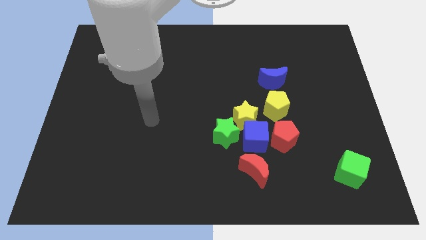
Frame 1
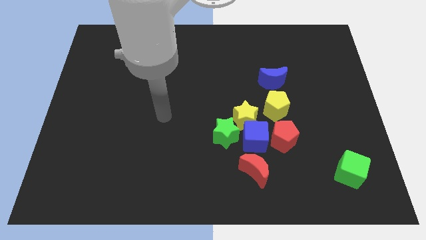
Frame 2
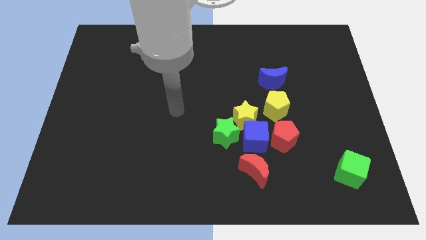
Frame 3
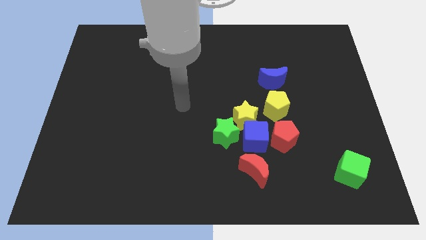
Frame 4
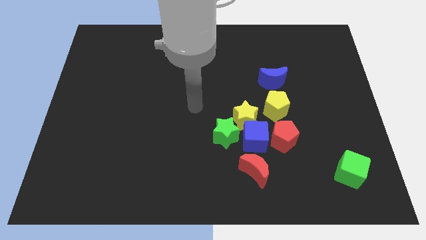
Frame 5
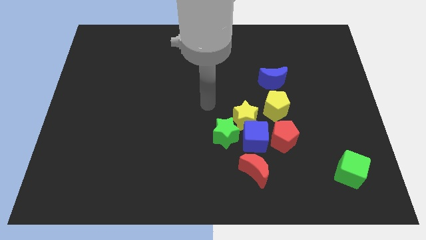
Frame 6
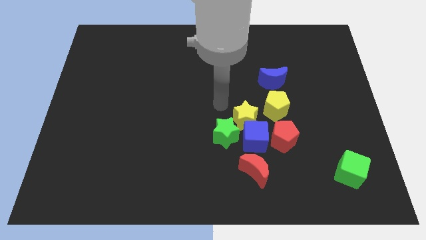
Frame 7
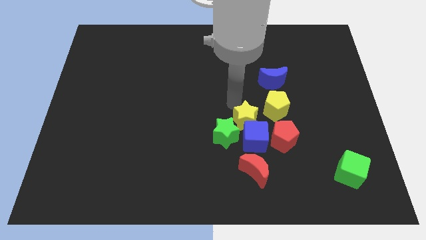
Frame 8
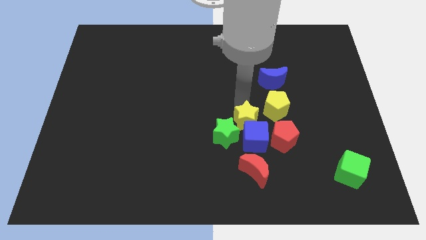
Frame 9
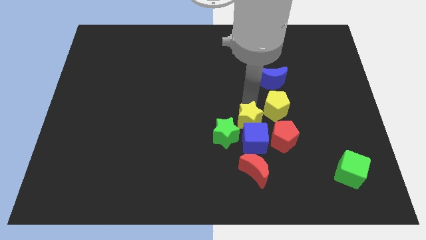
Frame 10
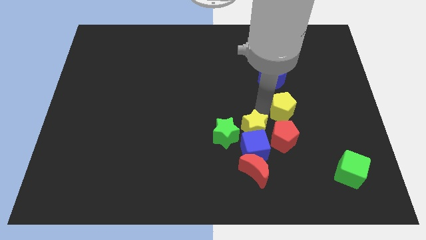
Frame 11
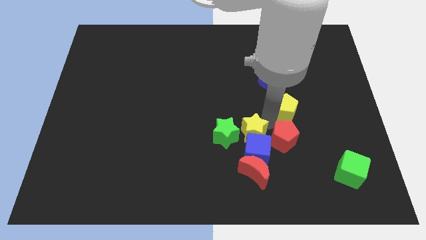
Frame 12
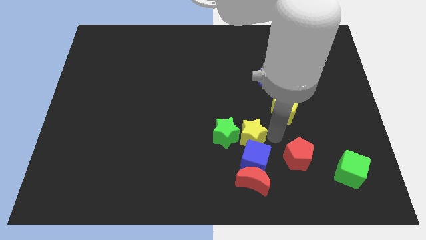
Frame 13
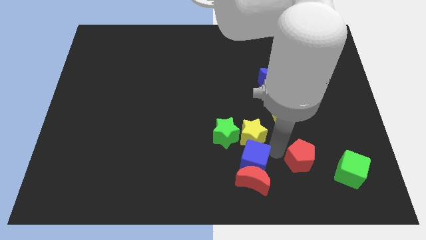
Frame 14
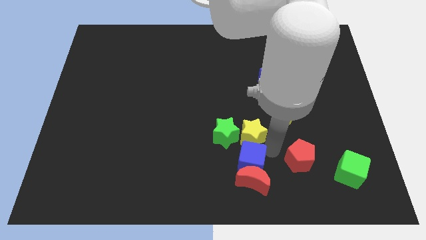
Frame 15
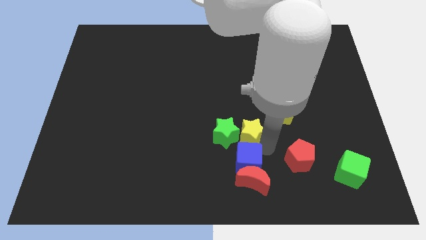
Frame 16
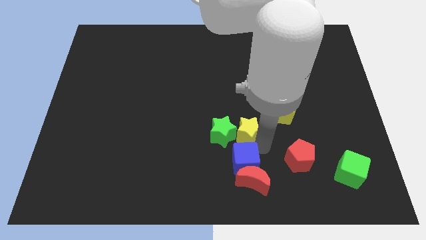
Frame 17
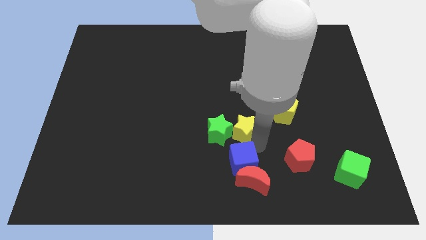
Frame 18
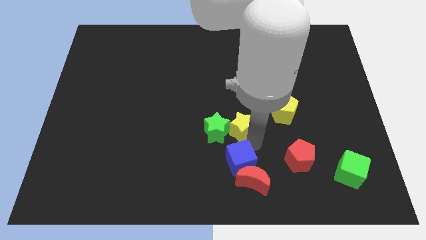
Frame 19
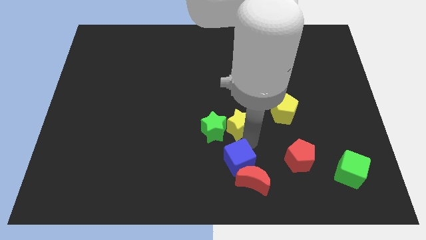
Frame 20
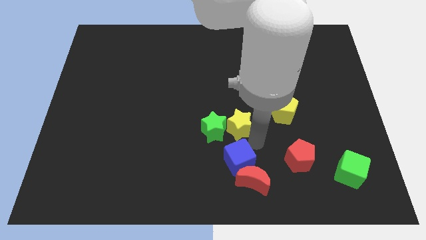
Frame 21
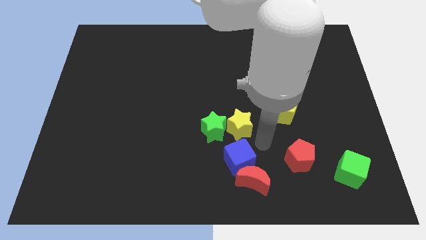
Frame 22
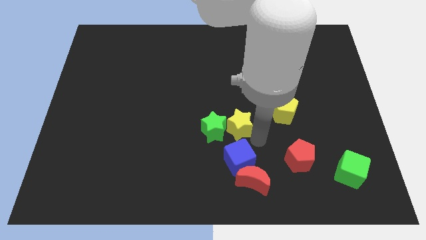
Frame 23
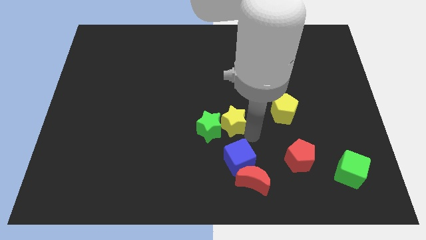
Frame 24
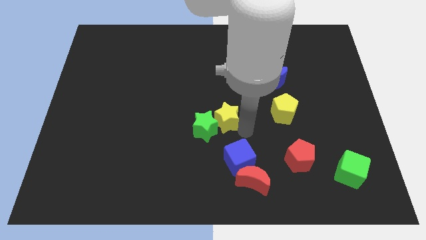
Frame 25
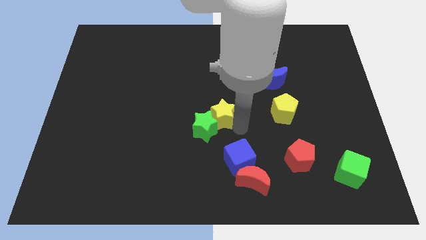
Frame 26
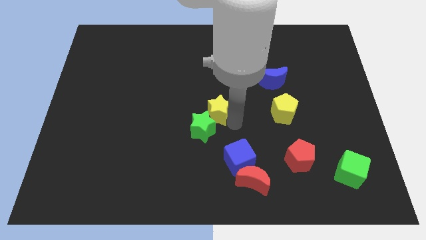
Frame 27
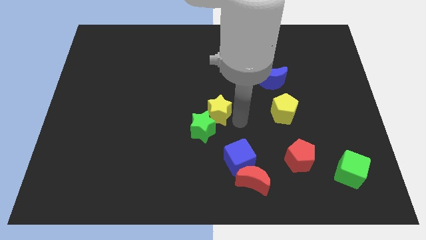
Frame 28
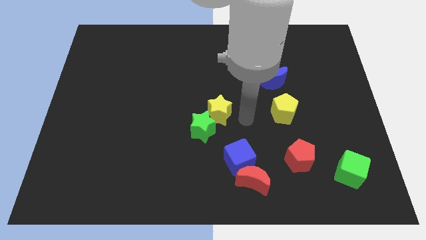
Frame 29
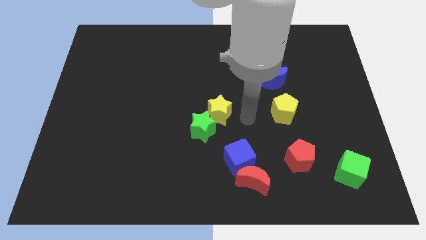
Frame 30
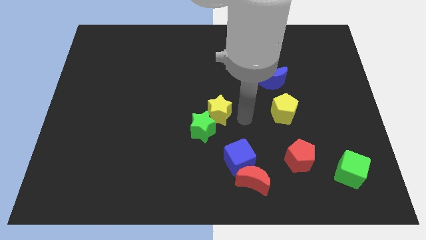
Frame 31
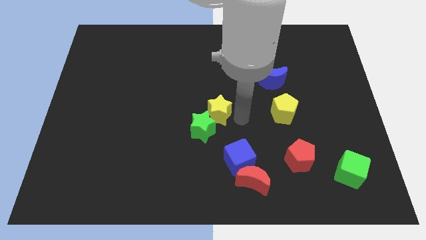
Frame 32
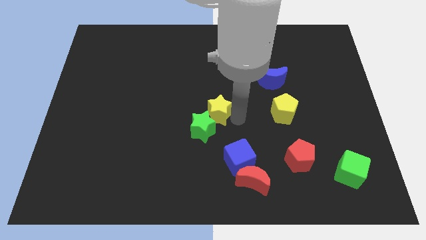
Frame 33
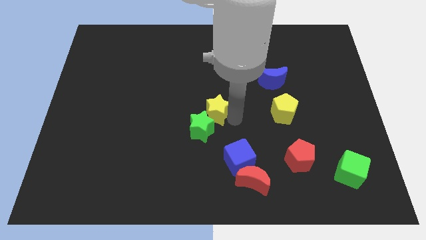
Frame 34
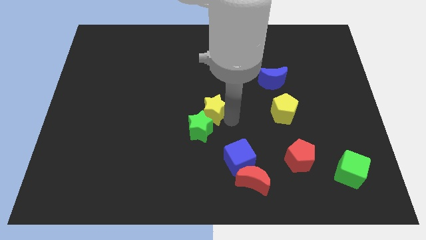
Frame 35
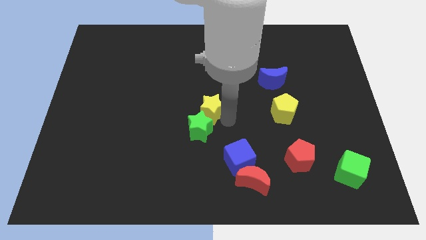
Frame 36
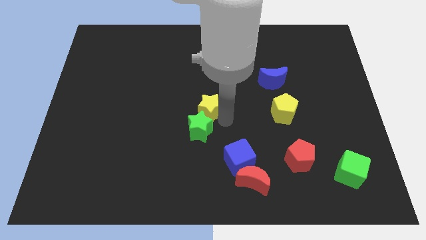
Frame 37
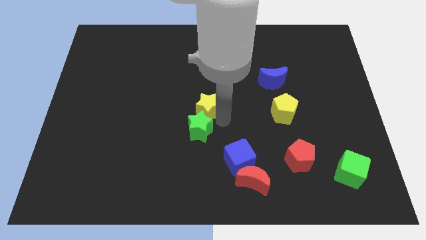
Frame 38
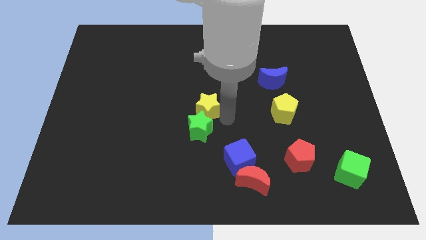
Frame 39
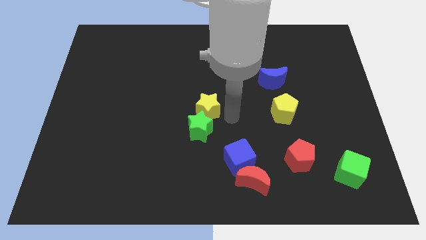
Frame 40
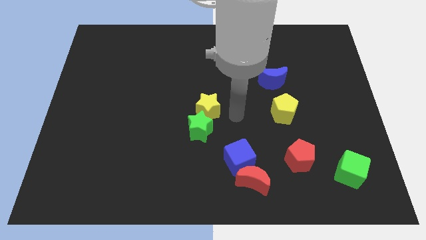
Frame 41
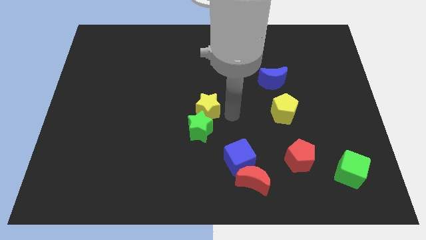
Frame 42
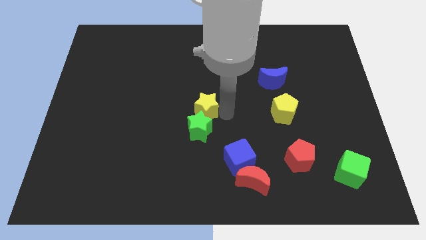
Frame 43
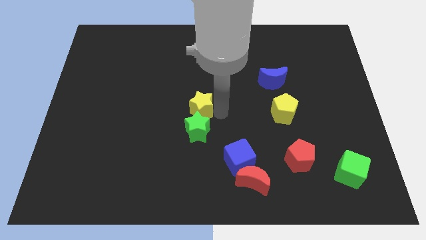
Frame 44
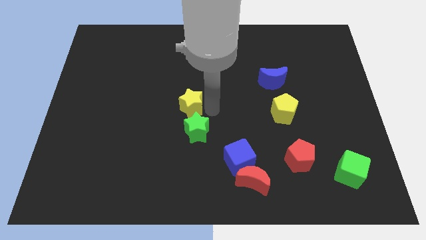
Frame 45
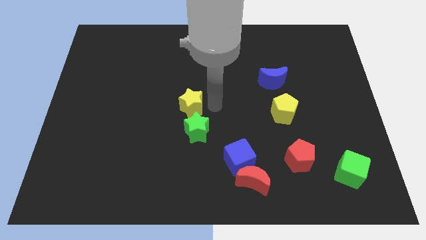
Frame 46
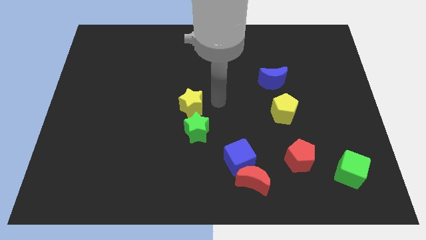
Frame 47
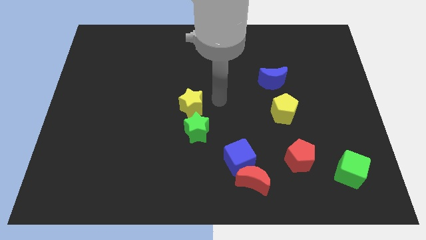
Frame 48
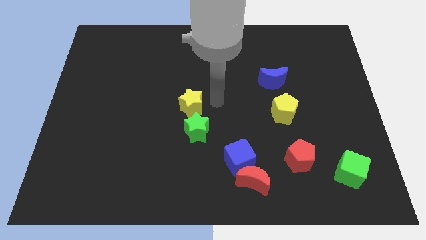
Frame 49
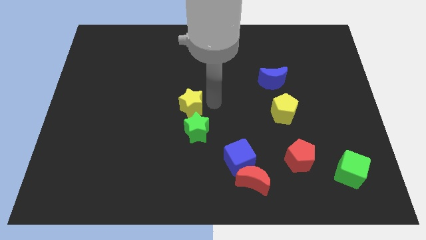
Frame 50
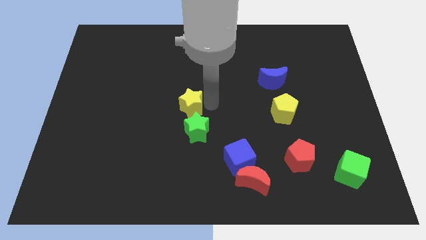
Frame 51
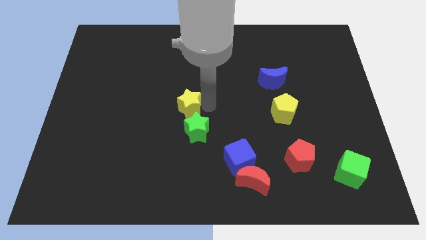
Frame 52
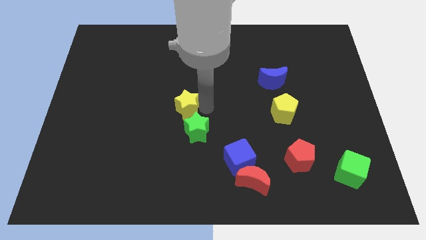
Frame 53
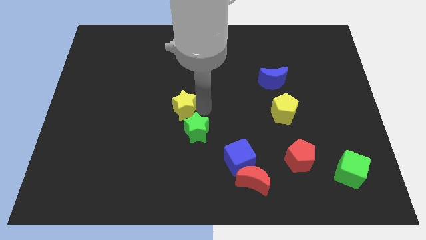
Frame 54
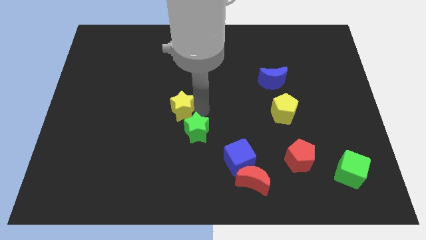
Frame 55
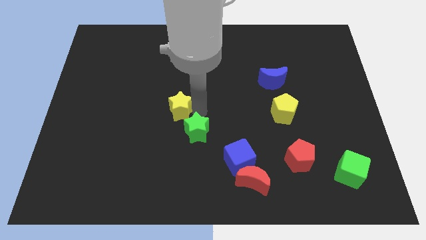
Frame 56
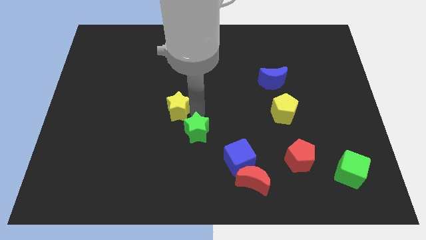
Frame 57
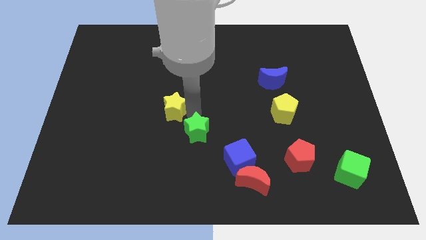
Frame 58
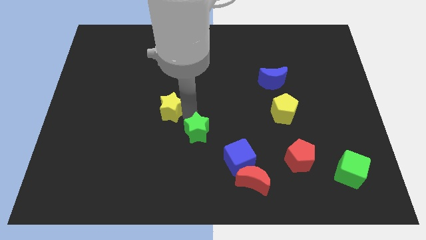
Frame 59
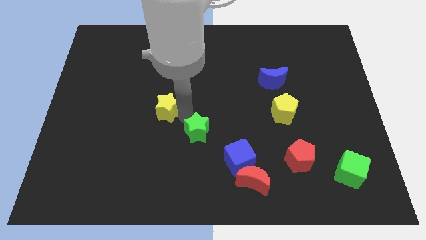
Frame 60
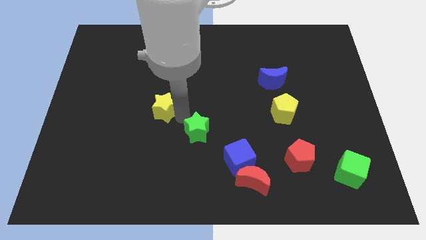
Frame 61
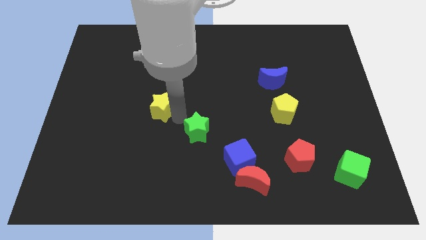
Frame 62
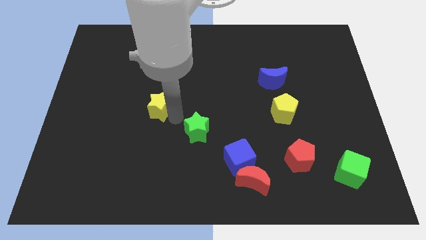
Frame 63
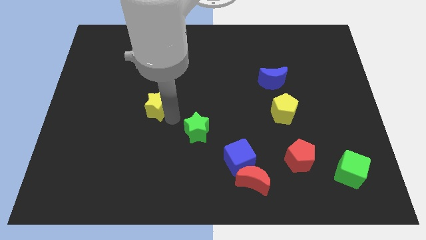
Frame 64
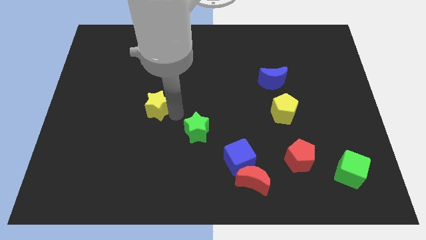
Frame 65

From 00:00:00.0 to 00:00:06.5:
push the yellow star to the left

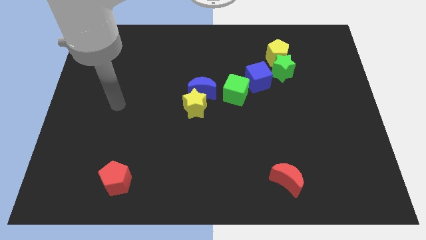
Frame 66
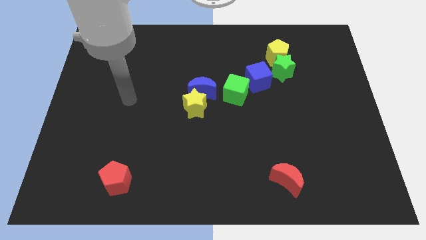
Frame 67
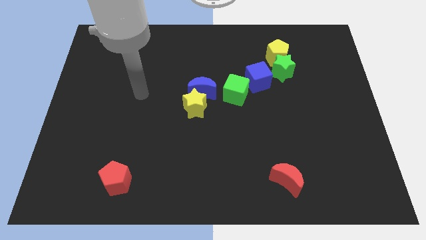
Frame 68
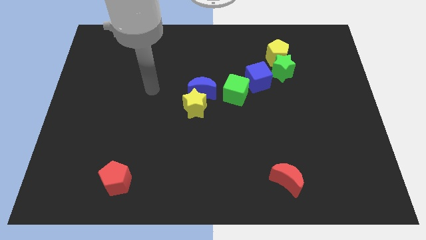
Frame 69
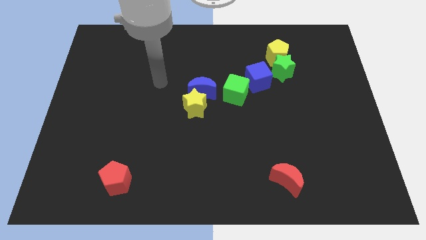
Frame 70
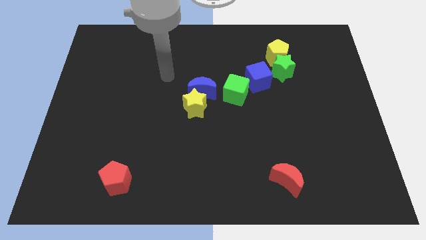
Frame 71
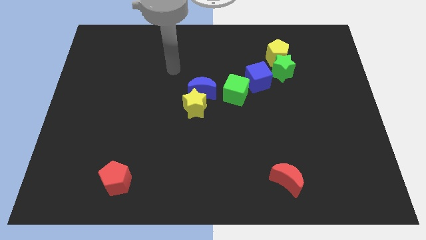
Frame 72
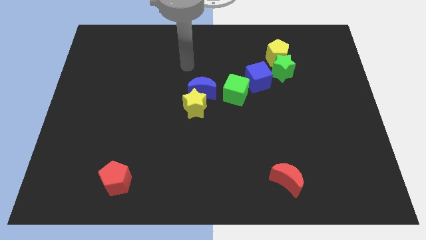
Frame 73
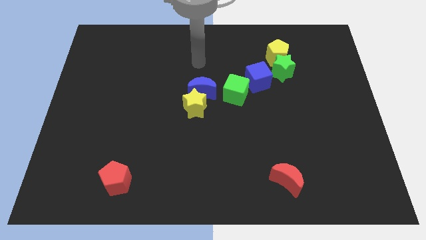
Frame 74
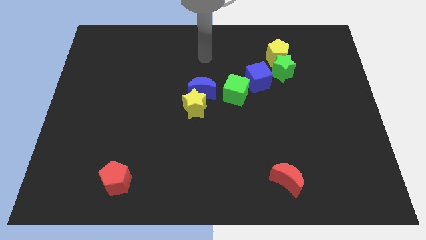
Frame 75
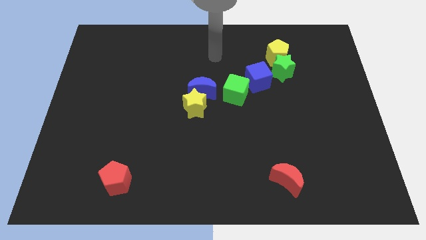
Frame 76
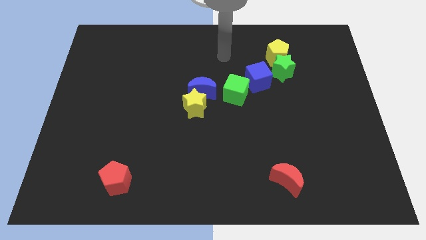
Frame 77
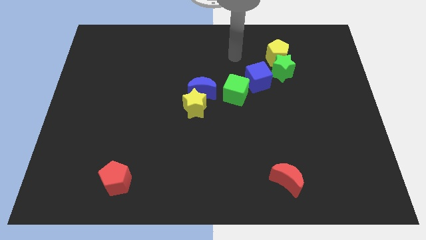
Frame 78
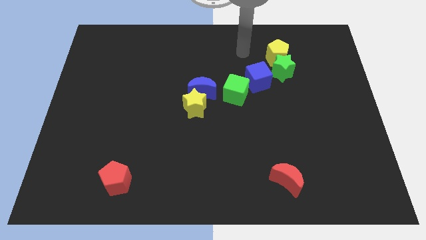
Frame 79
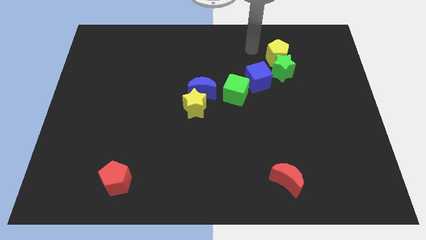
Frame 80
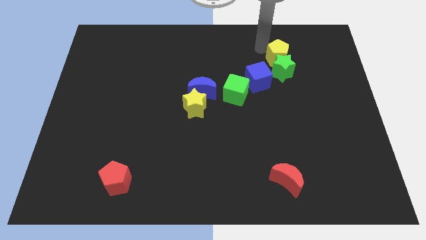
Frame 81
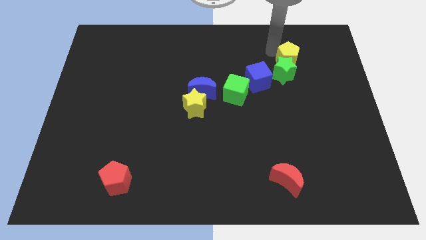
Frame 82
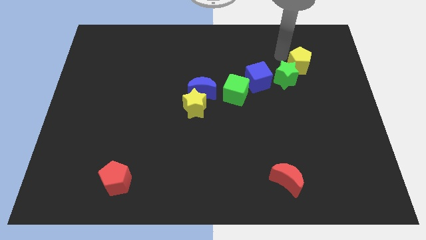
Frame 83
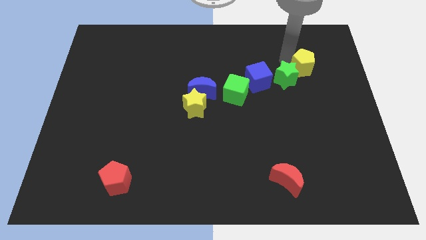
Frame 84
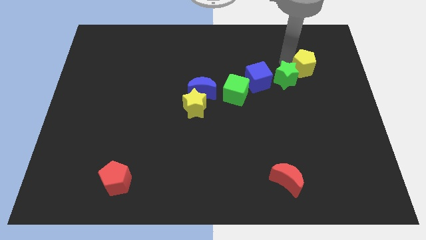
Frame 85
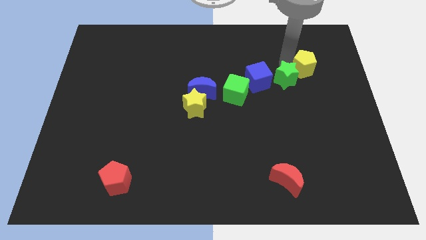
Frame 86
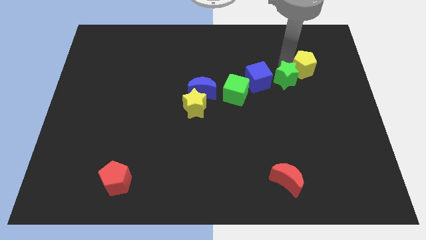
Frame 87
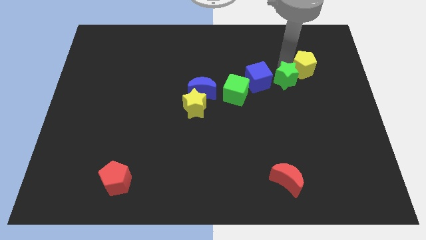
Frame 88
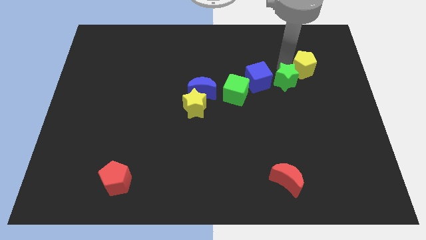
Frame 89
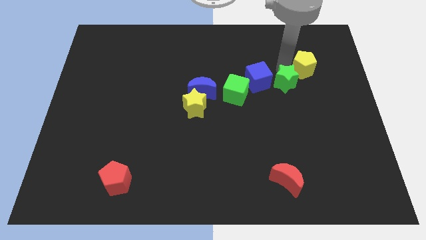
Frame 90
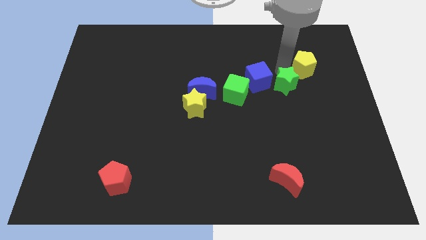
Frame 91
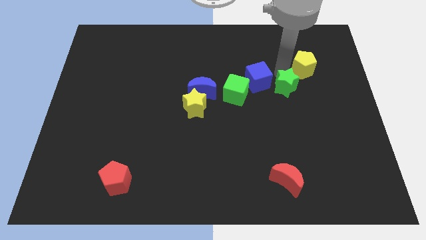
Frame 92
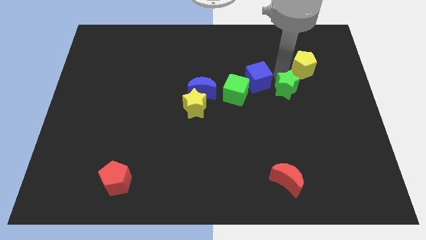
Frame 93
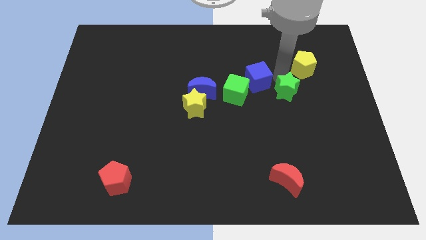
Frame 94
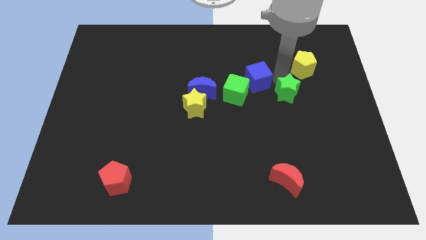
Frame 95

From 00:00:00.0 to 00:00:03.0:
push the green star slightly down
